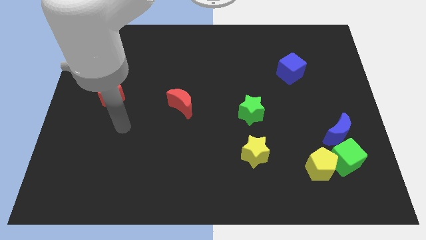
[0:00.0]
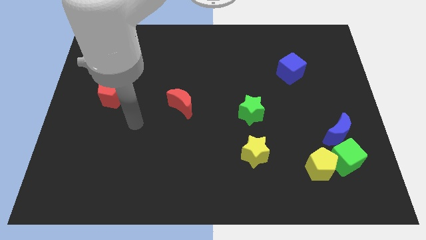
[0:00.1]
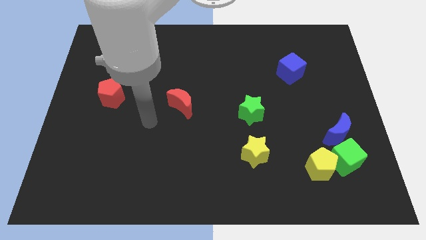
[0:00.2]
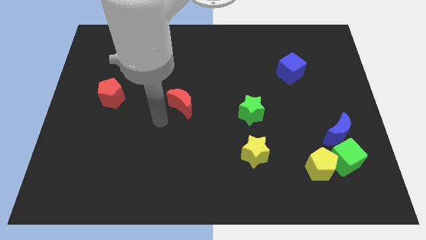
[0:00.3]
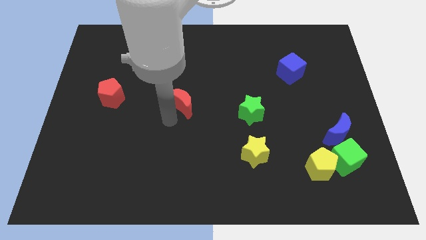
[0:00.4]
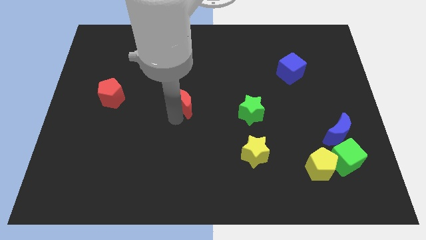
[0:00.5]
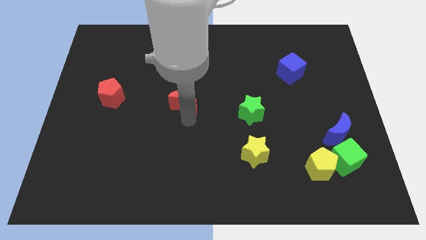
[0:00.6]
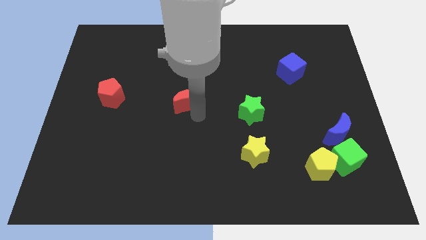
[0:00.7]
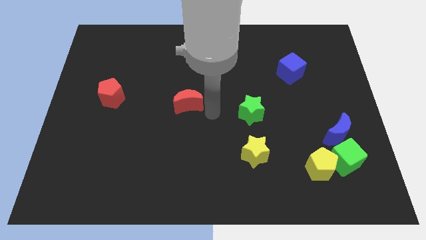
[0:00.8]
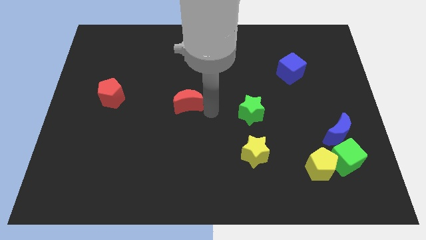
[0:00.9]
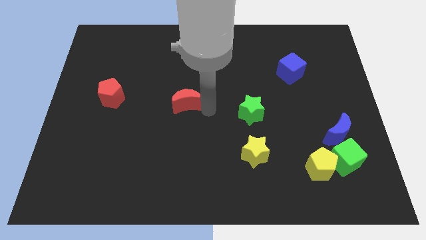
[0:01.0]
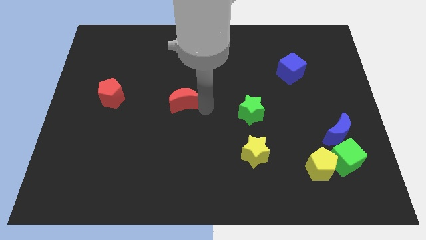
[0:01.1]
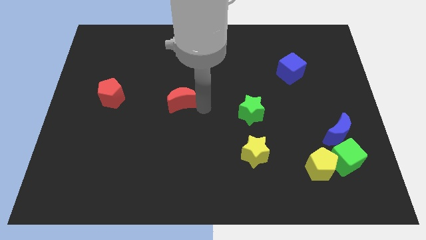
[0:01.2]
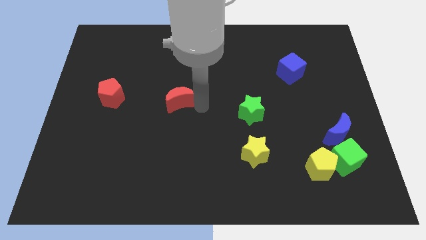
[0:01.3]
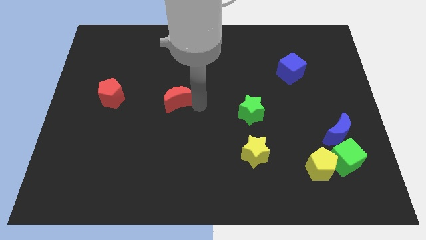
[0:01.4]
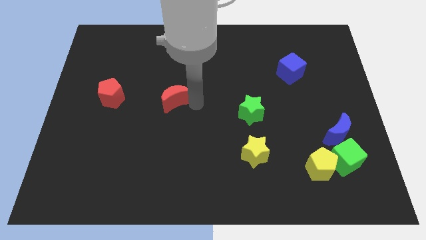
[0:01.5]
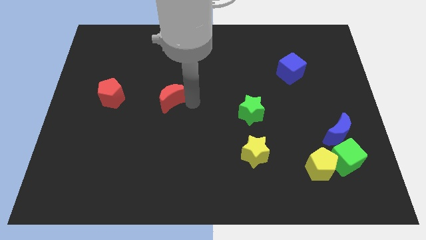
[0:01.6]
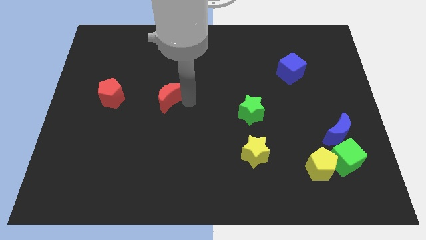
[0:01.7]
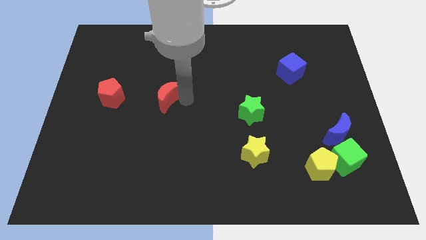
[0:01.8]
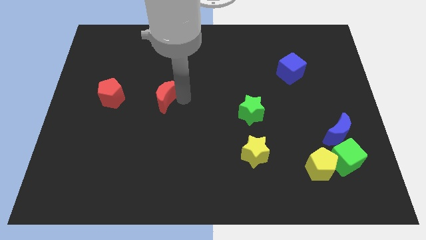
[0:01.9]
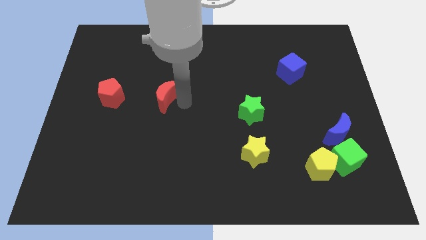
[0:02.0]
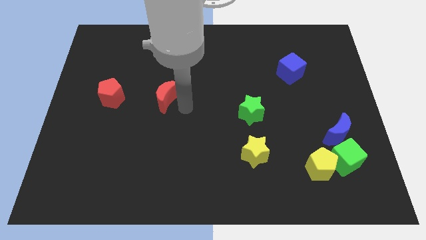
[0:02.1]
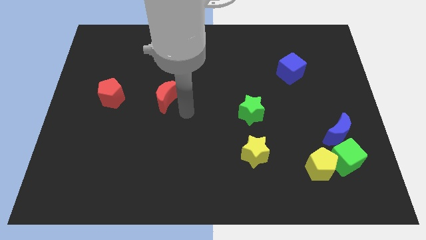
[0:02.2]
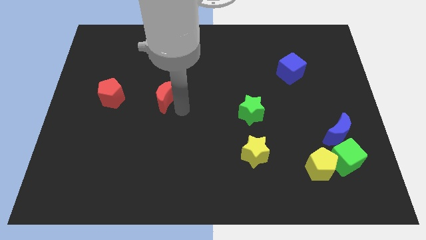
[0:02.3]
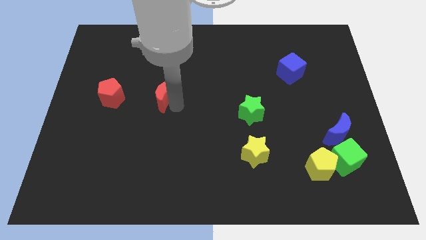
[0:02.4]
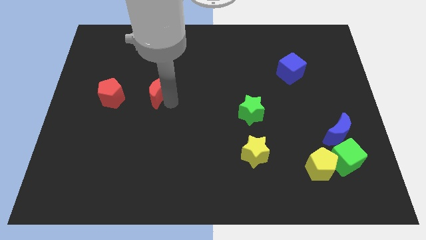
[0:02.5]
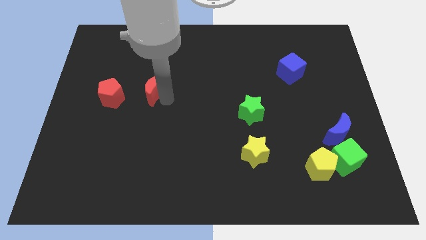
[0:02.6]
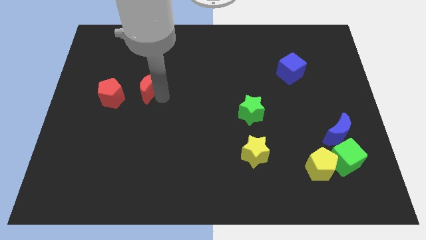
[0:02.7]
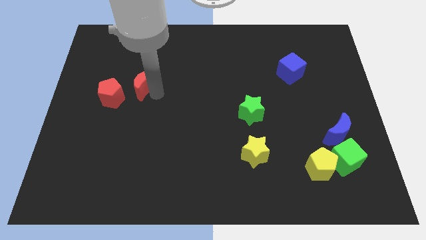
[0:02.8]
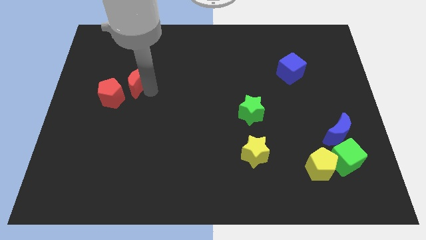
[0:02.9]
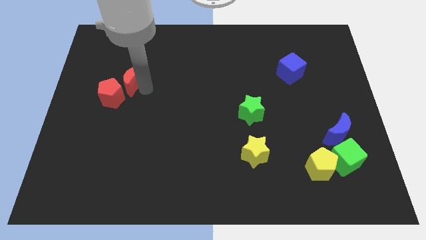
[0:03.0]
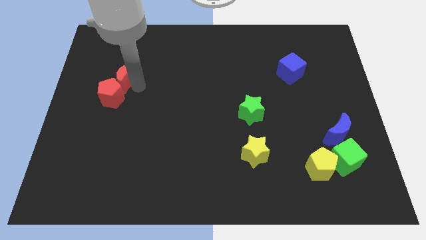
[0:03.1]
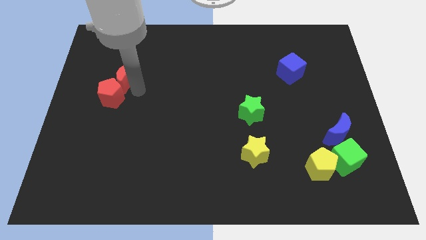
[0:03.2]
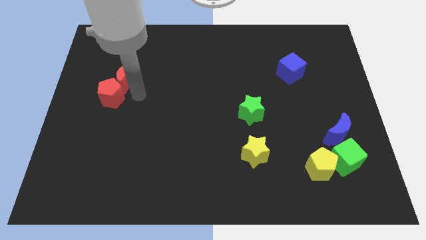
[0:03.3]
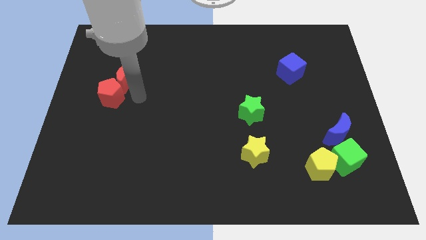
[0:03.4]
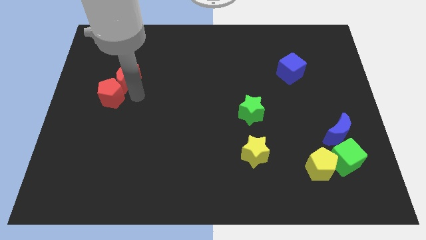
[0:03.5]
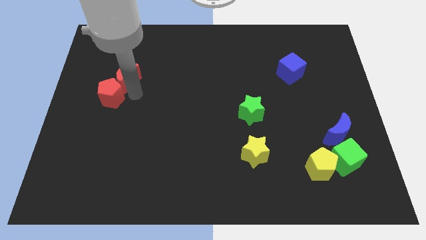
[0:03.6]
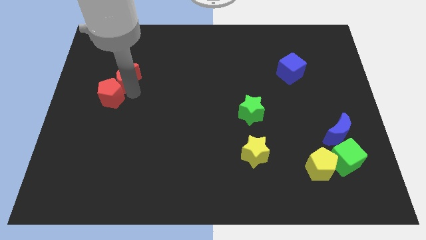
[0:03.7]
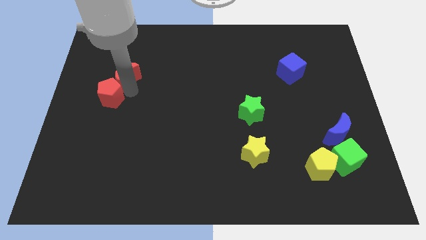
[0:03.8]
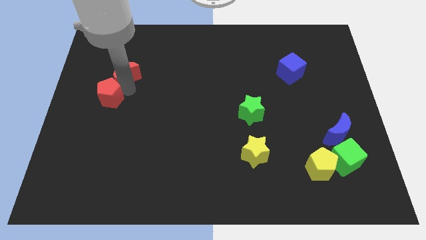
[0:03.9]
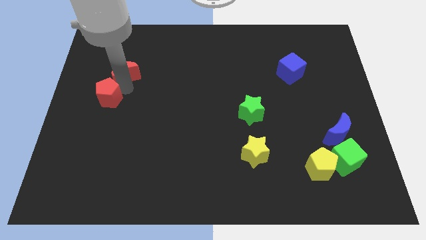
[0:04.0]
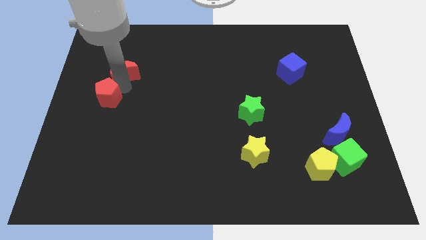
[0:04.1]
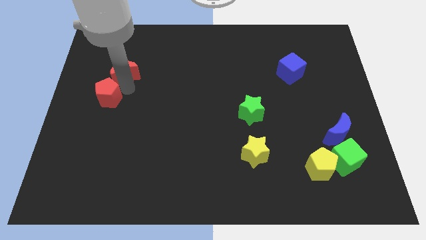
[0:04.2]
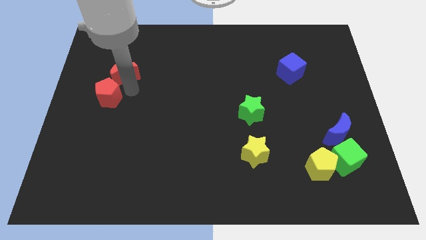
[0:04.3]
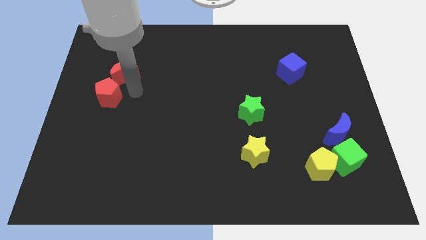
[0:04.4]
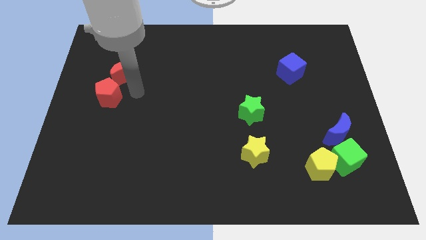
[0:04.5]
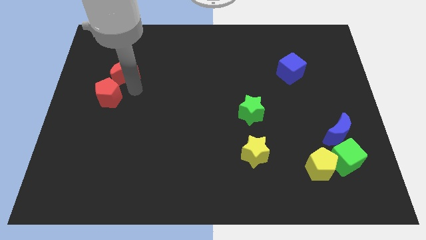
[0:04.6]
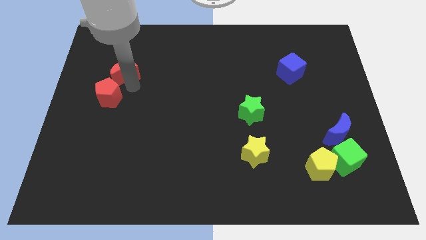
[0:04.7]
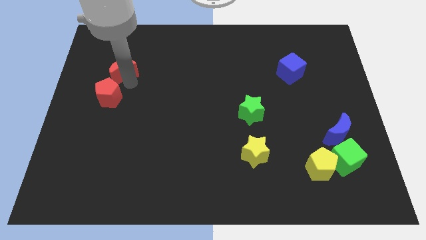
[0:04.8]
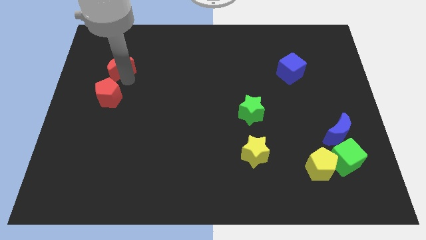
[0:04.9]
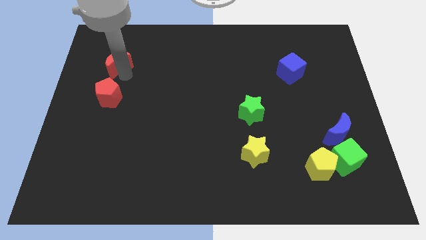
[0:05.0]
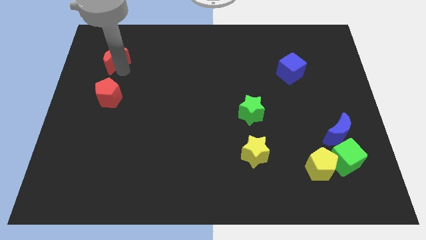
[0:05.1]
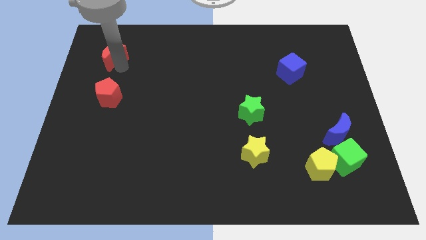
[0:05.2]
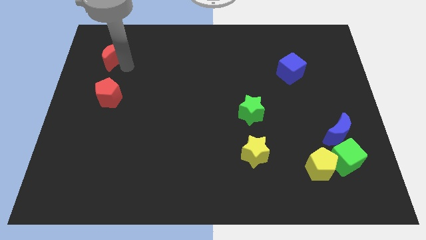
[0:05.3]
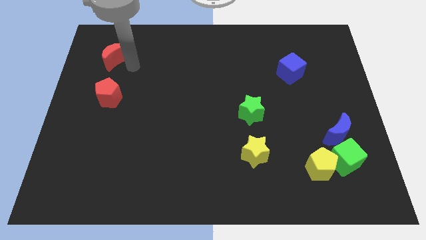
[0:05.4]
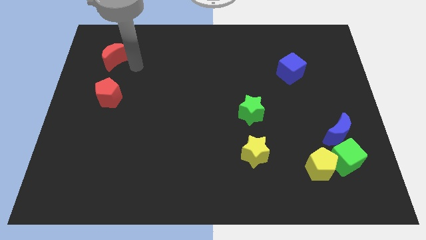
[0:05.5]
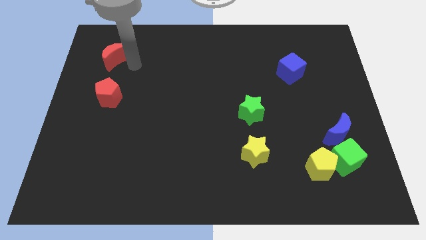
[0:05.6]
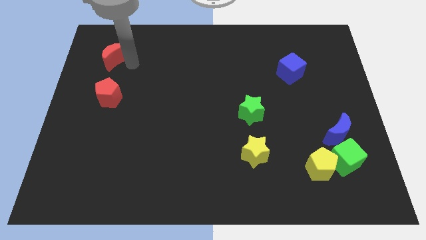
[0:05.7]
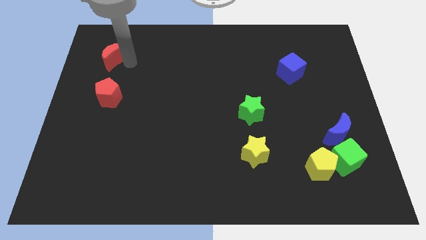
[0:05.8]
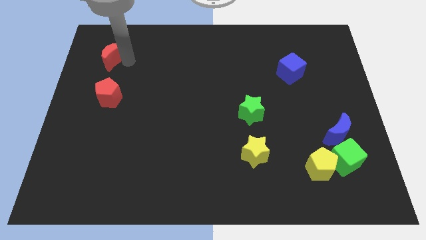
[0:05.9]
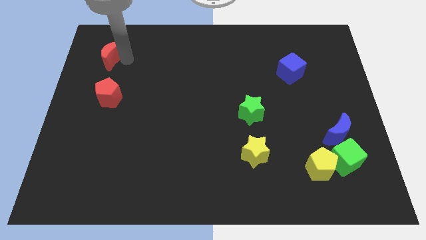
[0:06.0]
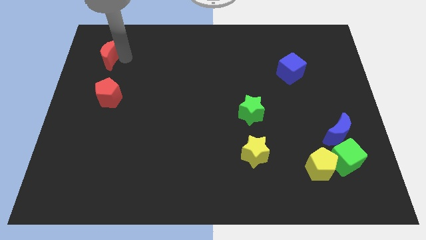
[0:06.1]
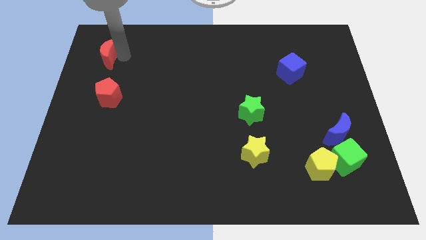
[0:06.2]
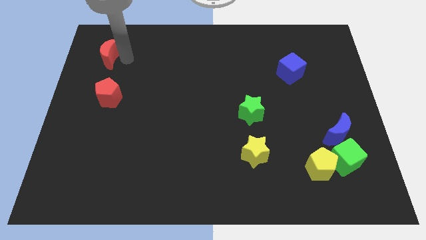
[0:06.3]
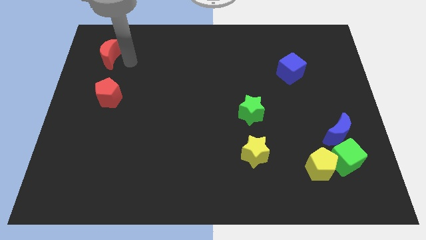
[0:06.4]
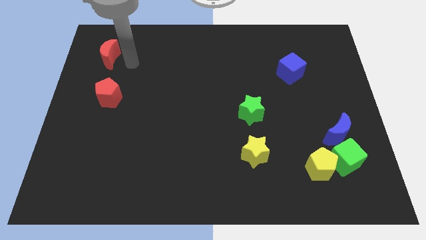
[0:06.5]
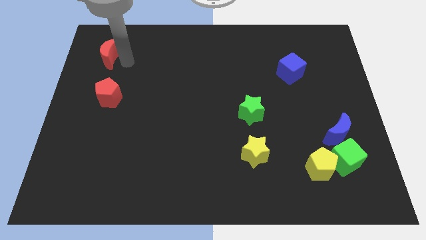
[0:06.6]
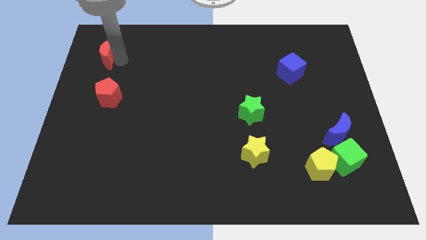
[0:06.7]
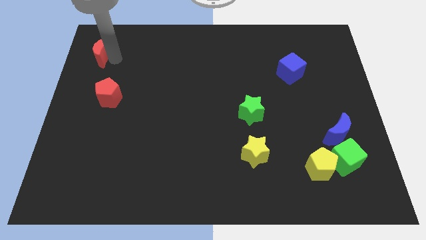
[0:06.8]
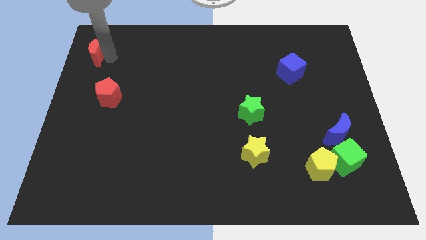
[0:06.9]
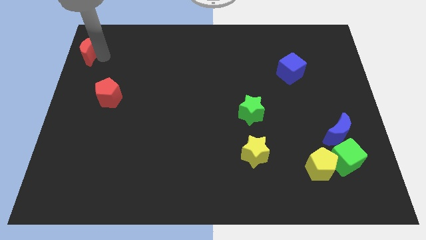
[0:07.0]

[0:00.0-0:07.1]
move the red moon to the upper left corner

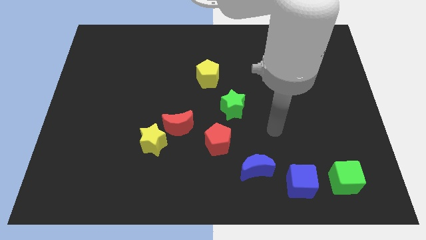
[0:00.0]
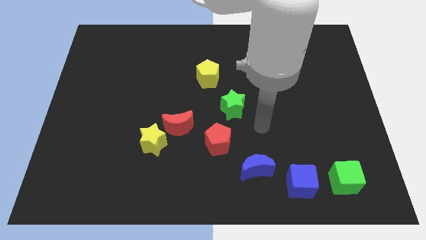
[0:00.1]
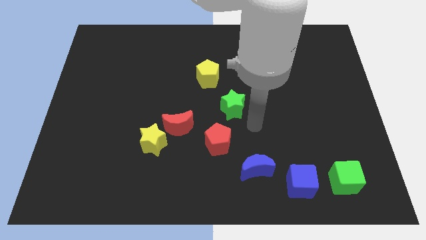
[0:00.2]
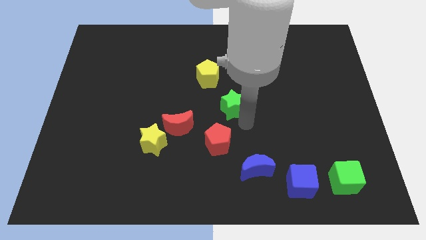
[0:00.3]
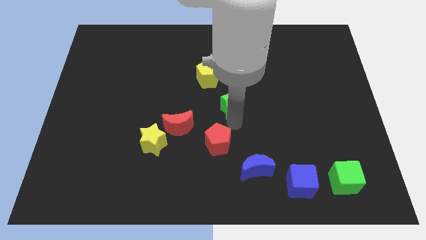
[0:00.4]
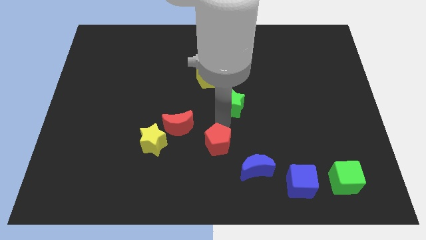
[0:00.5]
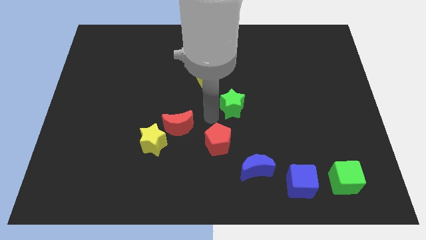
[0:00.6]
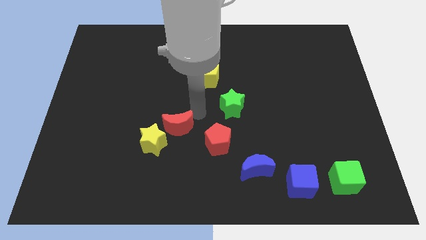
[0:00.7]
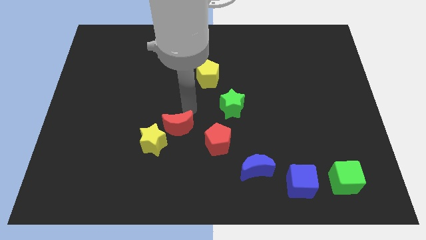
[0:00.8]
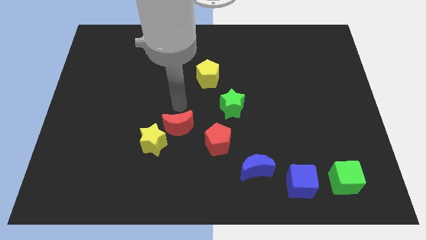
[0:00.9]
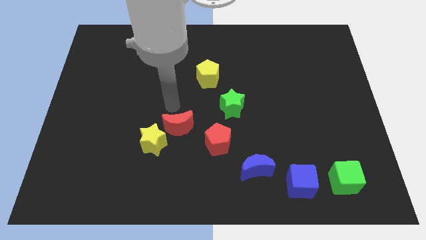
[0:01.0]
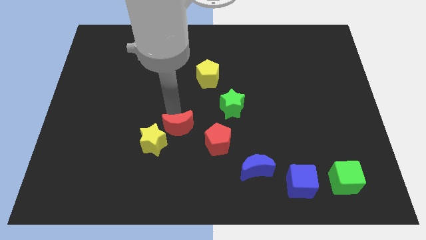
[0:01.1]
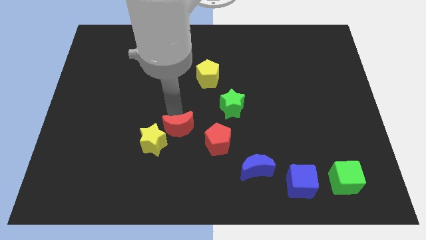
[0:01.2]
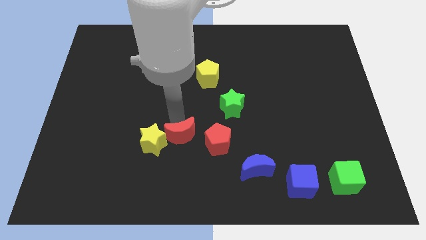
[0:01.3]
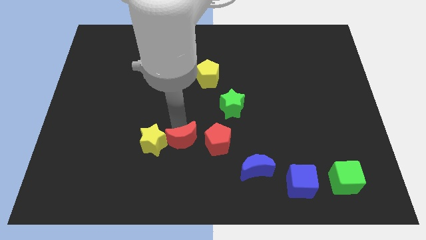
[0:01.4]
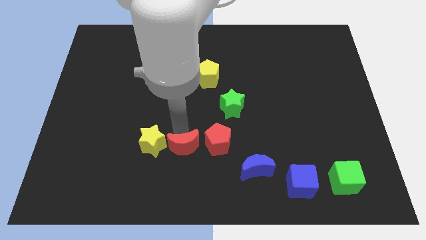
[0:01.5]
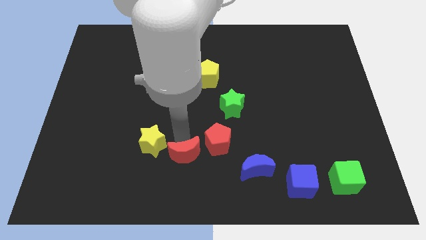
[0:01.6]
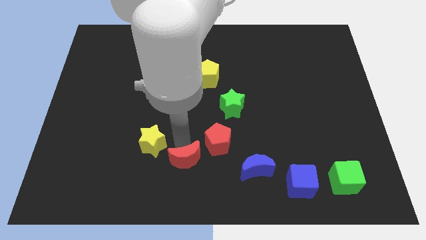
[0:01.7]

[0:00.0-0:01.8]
push the red moon to the bottom
